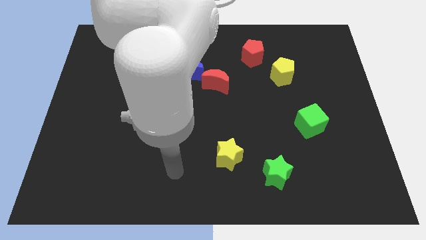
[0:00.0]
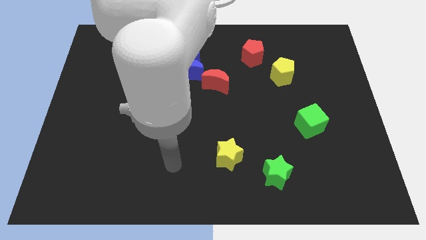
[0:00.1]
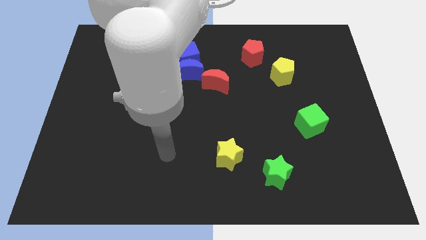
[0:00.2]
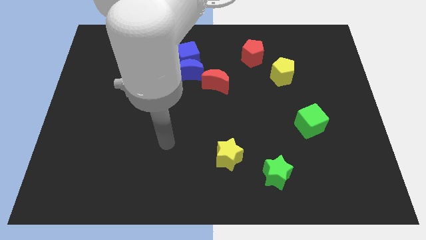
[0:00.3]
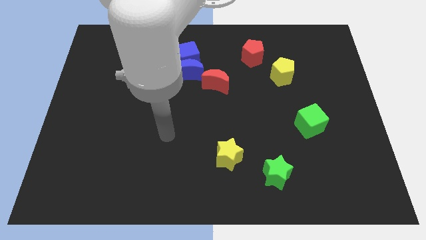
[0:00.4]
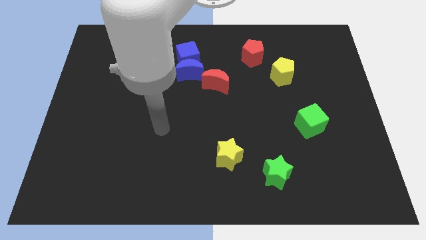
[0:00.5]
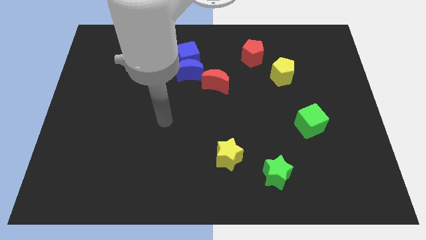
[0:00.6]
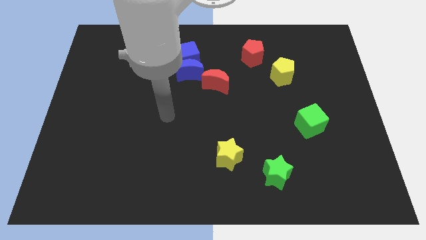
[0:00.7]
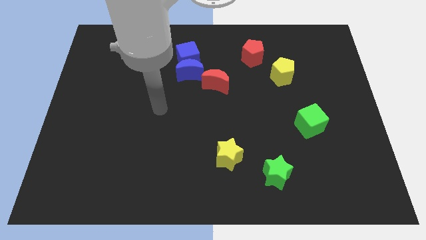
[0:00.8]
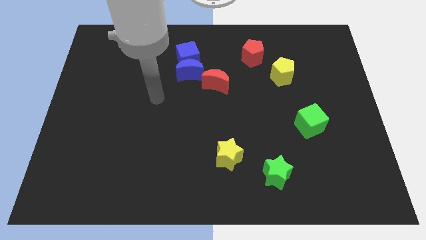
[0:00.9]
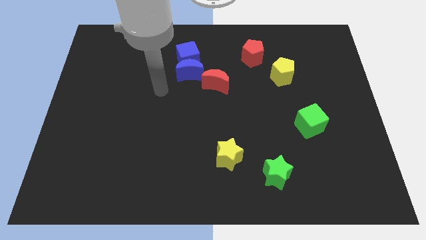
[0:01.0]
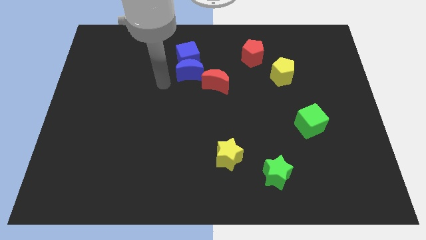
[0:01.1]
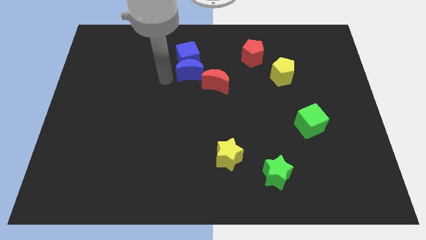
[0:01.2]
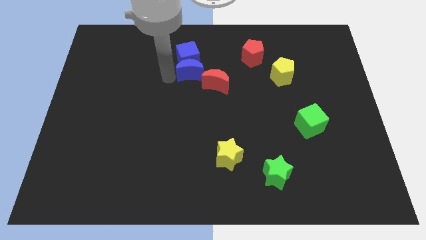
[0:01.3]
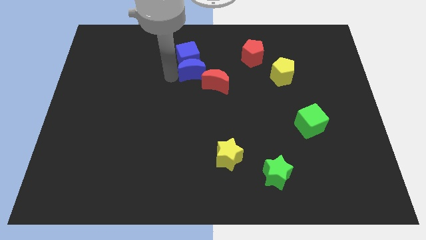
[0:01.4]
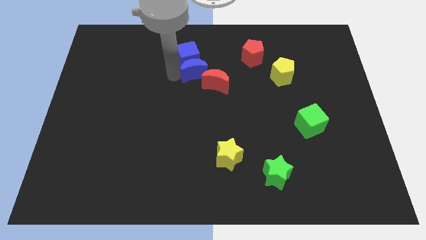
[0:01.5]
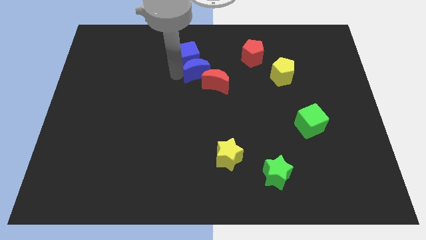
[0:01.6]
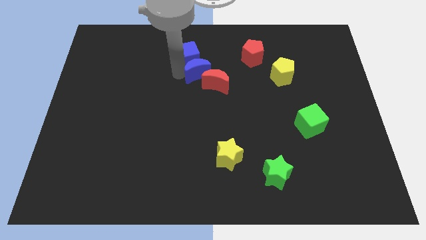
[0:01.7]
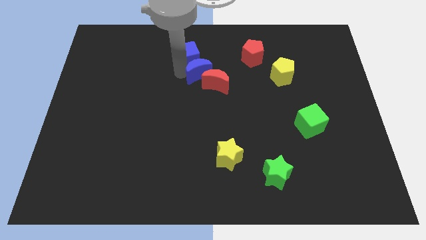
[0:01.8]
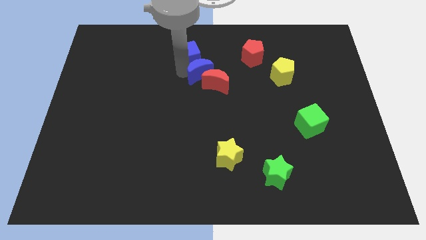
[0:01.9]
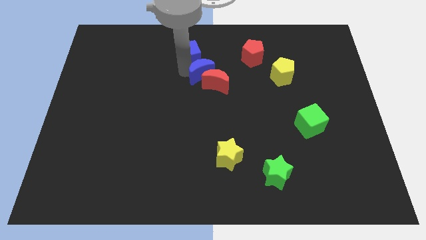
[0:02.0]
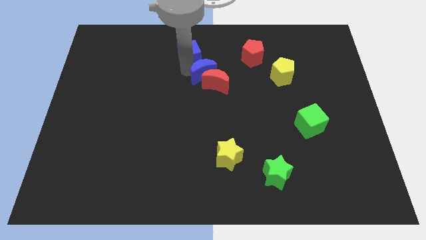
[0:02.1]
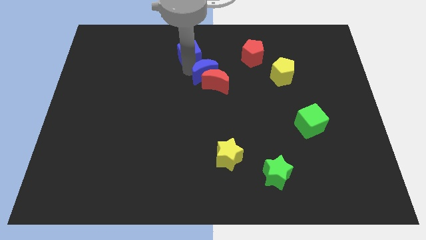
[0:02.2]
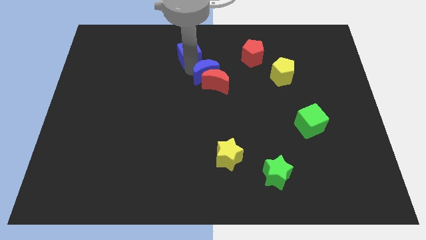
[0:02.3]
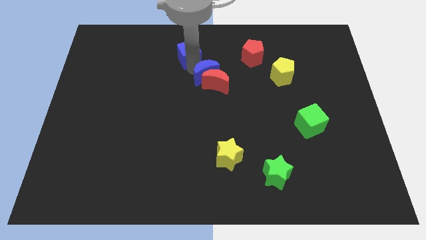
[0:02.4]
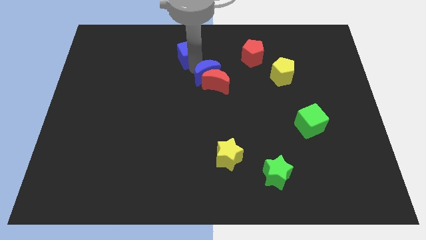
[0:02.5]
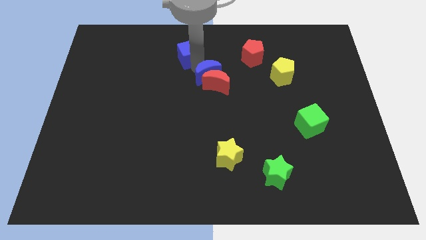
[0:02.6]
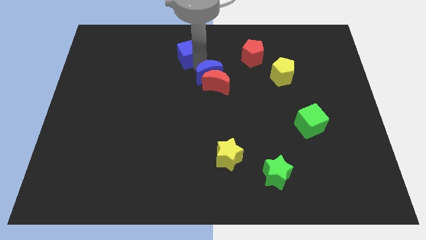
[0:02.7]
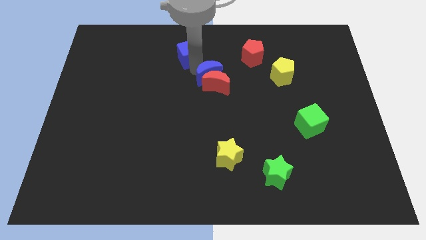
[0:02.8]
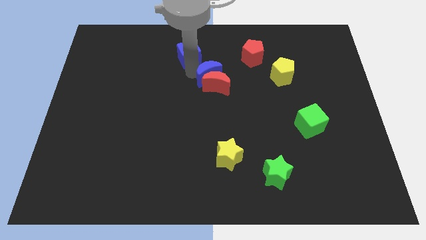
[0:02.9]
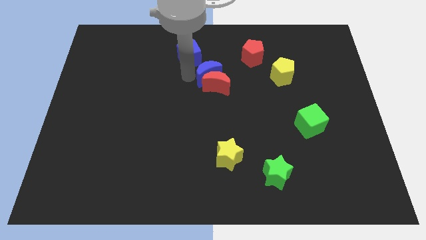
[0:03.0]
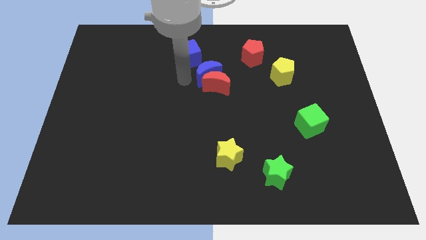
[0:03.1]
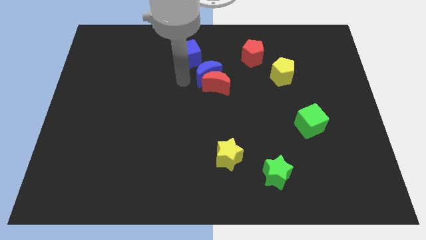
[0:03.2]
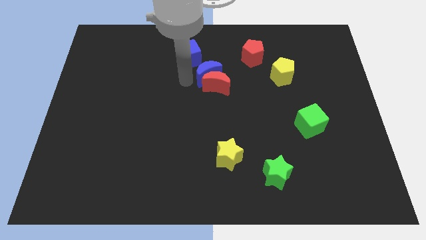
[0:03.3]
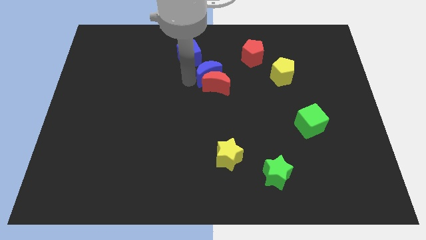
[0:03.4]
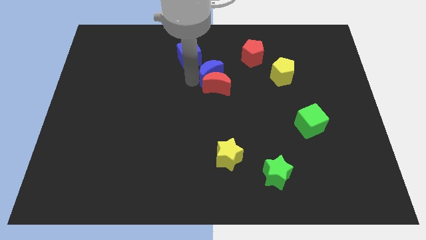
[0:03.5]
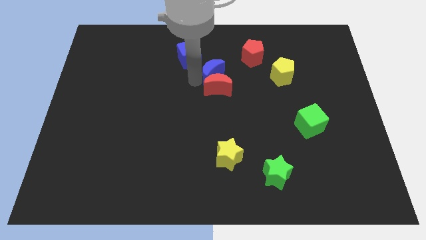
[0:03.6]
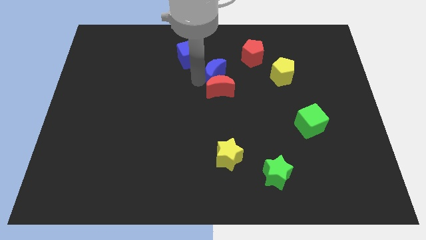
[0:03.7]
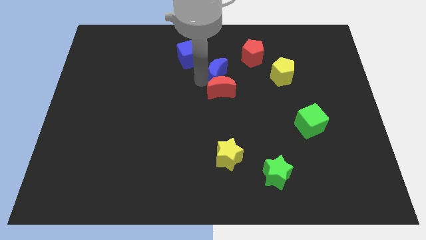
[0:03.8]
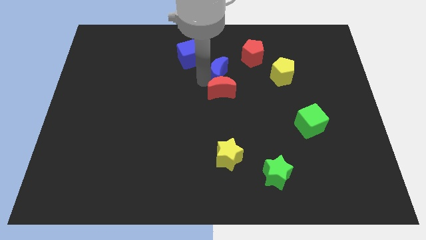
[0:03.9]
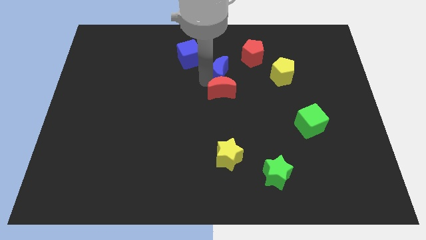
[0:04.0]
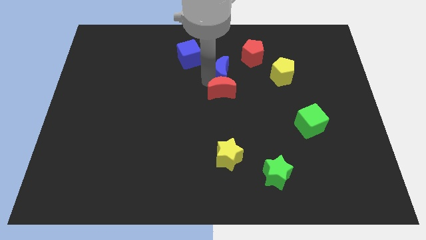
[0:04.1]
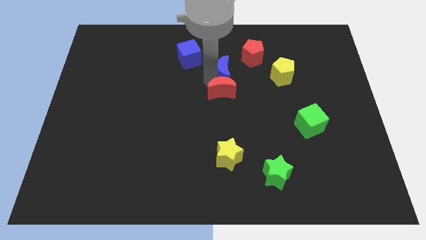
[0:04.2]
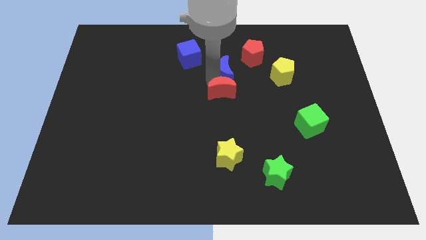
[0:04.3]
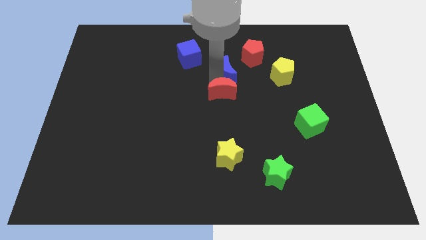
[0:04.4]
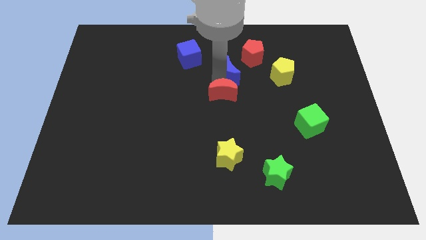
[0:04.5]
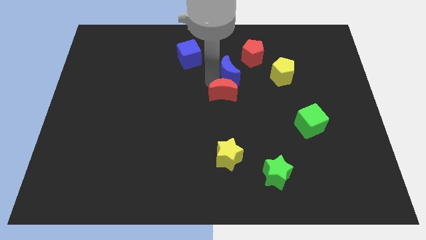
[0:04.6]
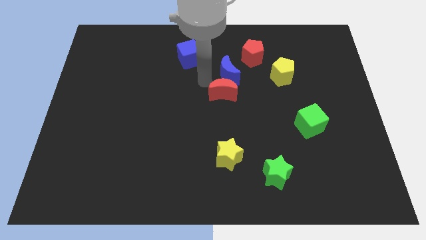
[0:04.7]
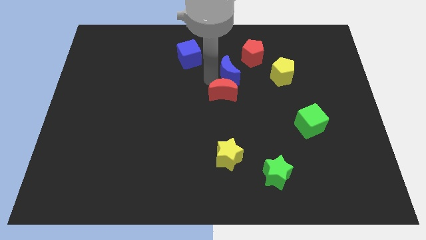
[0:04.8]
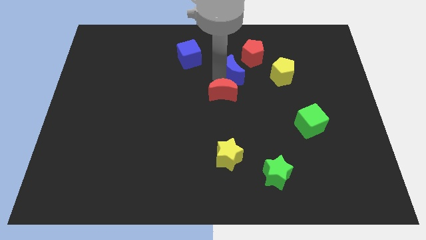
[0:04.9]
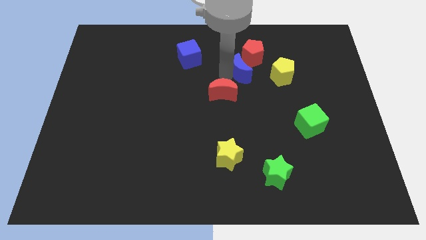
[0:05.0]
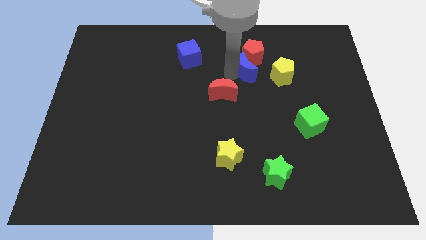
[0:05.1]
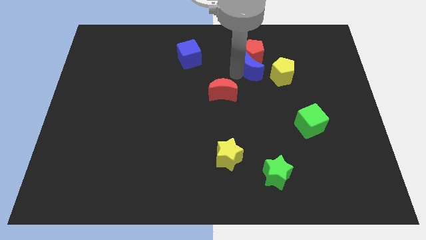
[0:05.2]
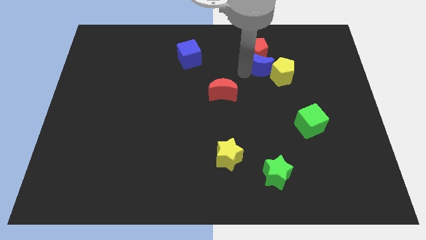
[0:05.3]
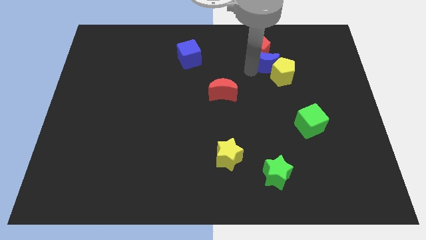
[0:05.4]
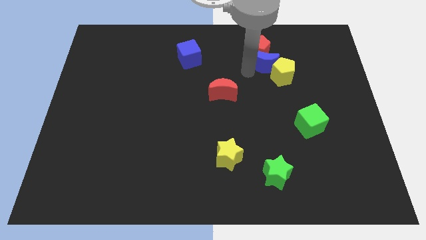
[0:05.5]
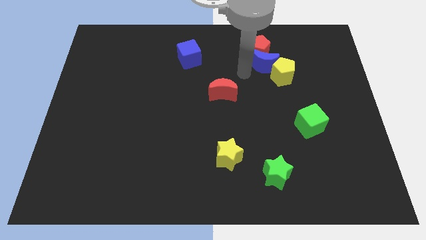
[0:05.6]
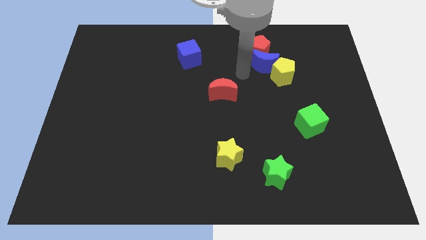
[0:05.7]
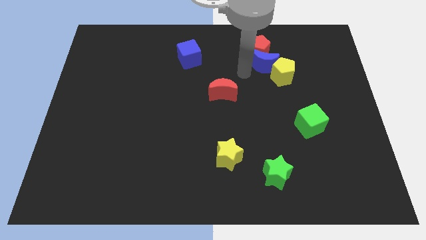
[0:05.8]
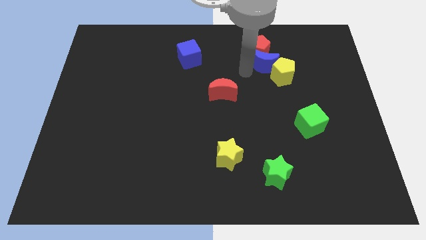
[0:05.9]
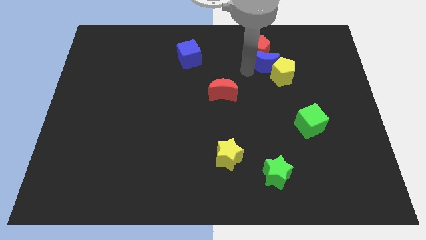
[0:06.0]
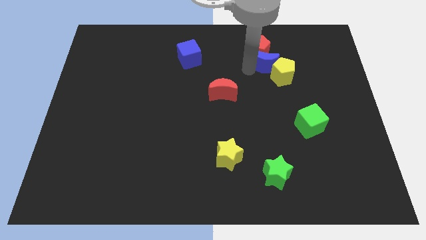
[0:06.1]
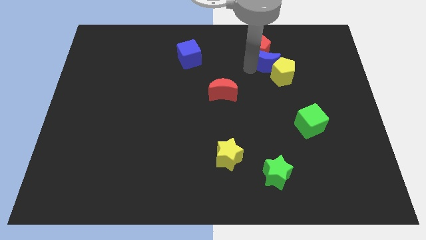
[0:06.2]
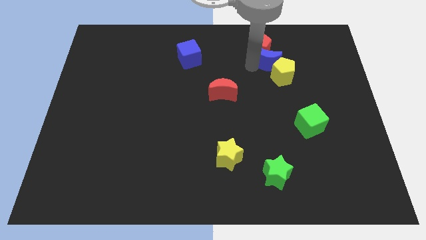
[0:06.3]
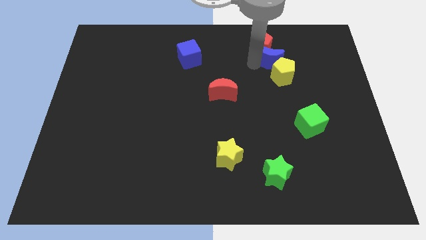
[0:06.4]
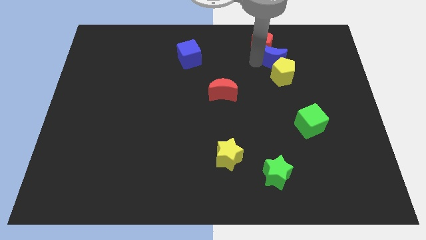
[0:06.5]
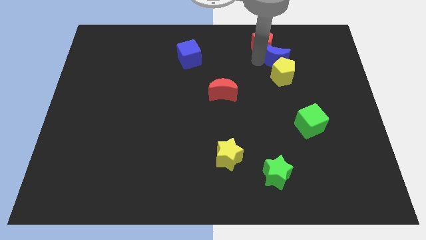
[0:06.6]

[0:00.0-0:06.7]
slide the blue moon to the top right side of the yellow pentagon

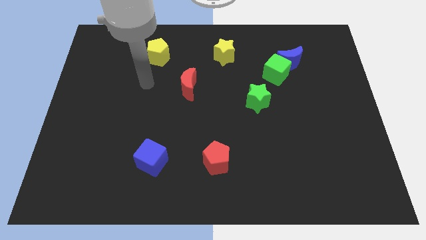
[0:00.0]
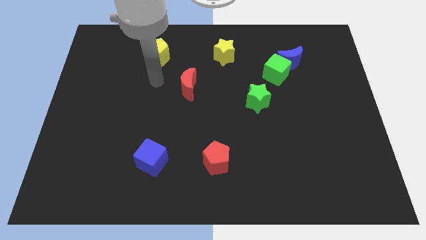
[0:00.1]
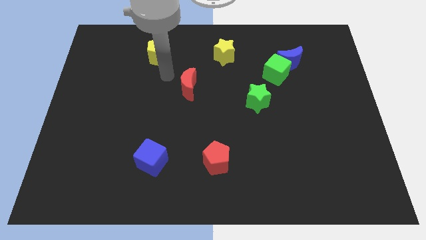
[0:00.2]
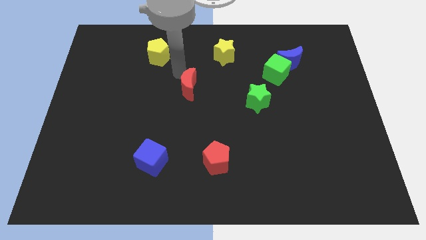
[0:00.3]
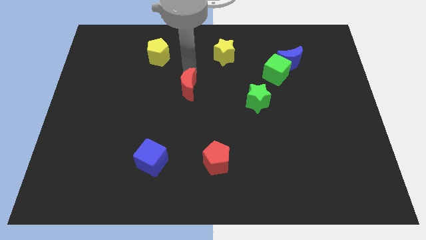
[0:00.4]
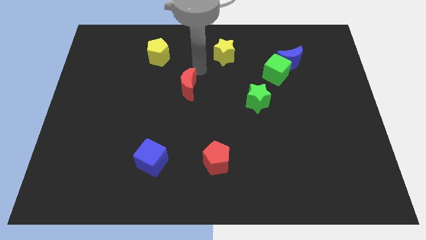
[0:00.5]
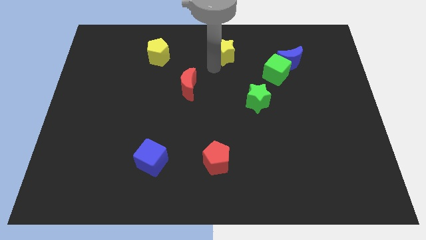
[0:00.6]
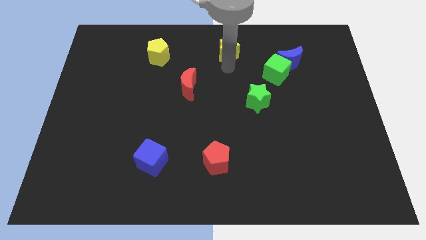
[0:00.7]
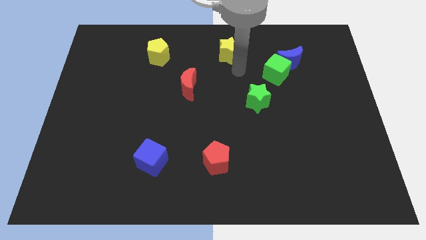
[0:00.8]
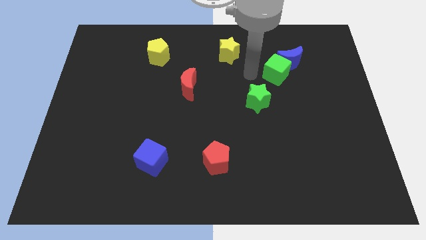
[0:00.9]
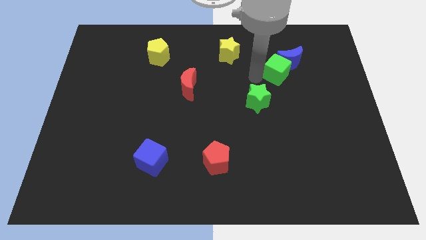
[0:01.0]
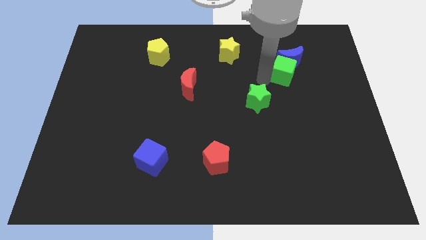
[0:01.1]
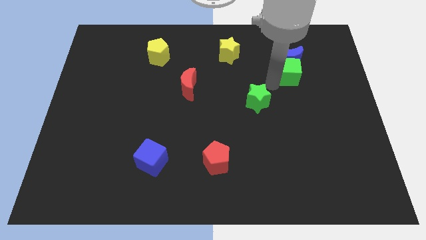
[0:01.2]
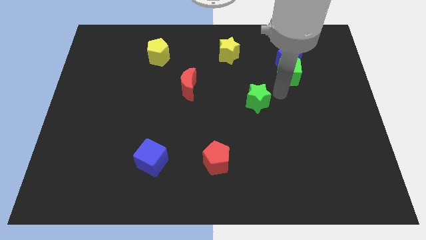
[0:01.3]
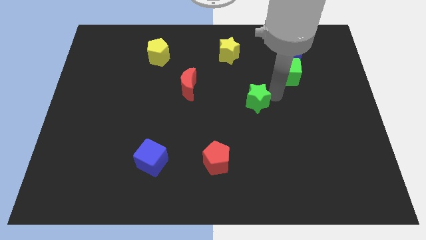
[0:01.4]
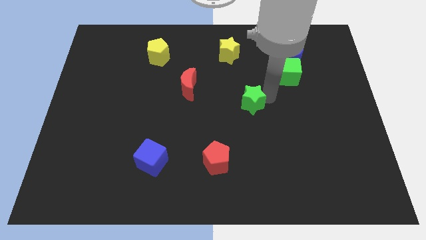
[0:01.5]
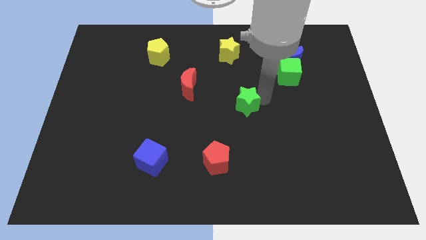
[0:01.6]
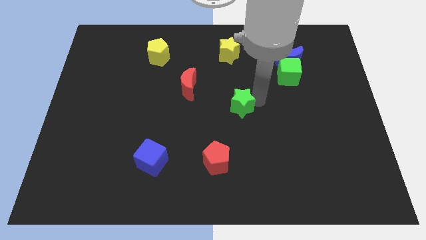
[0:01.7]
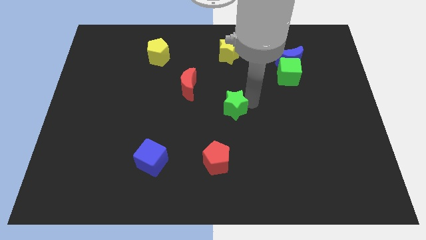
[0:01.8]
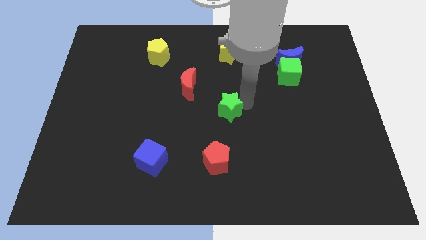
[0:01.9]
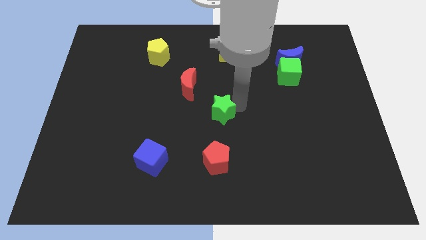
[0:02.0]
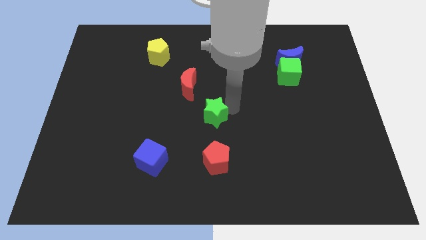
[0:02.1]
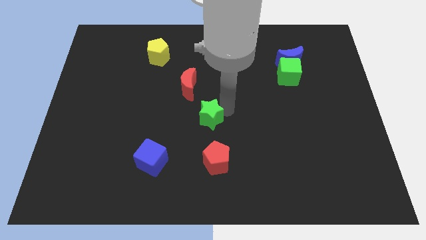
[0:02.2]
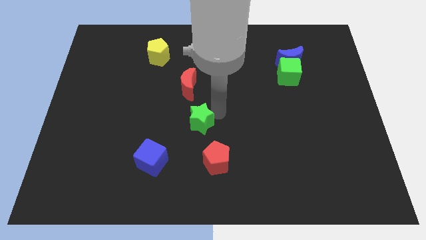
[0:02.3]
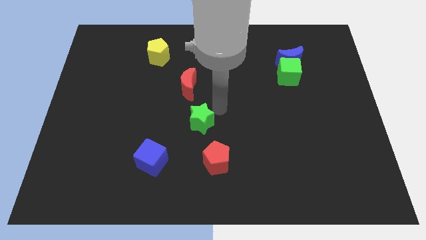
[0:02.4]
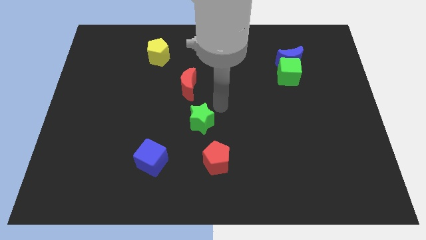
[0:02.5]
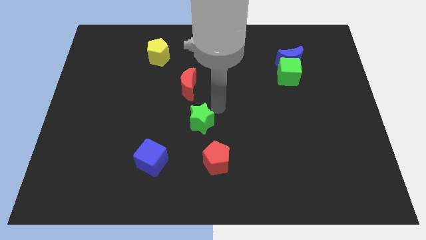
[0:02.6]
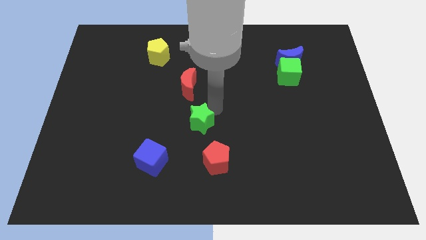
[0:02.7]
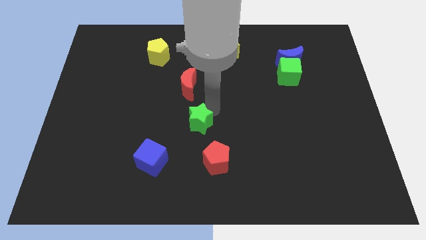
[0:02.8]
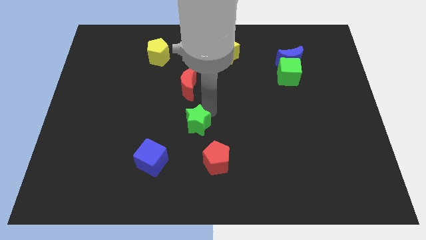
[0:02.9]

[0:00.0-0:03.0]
move the green star to the top right of the blue cube
